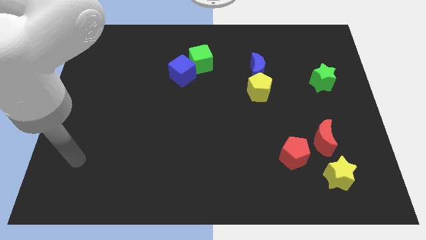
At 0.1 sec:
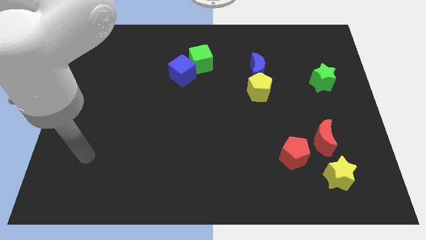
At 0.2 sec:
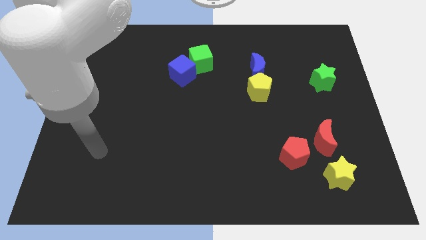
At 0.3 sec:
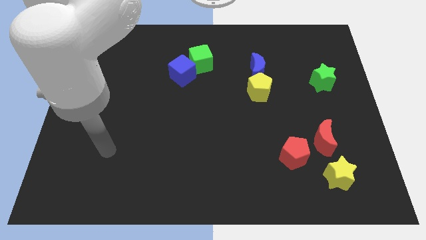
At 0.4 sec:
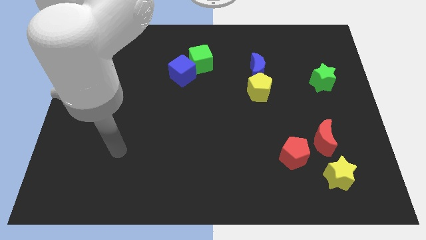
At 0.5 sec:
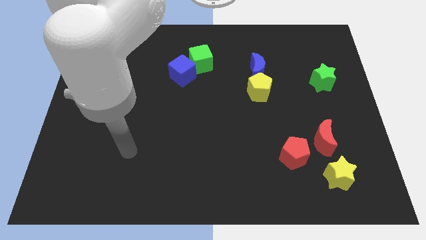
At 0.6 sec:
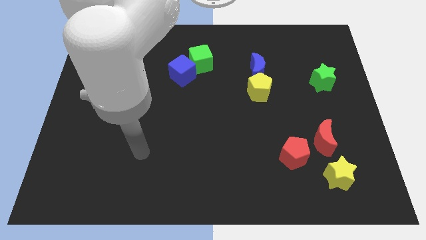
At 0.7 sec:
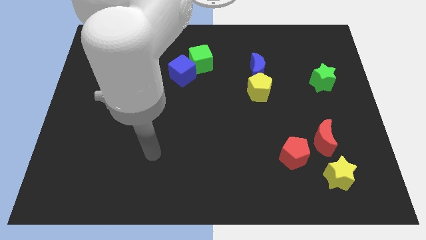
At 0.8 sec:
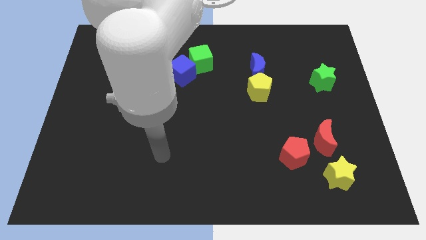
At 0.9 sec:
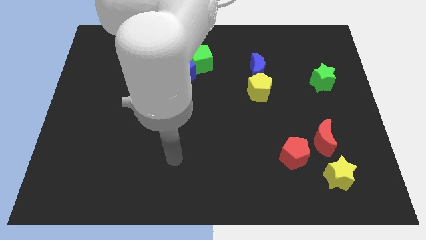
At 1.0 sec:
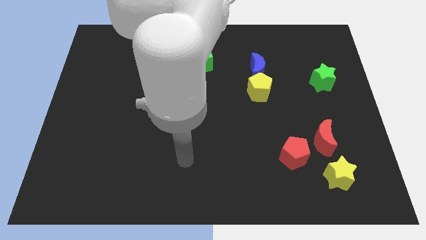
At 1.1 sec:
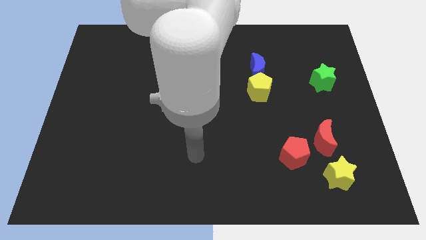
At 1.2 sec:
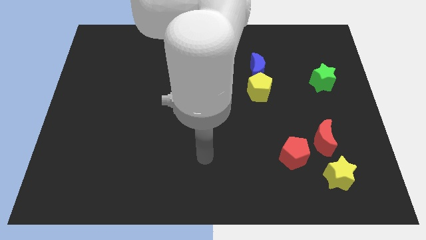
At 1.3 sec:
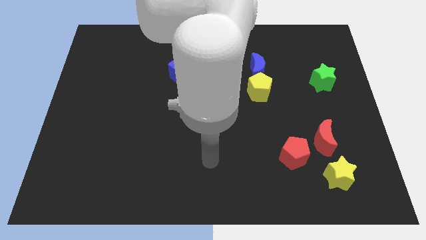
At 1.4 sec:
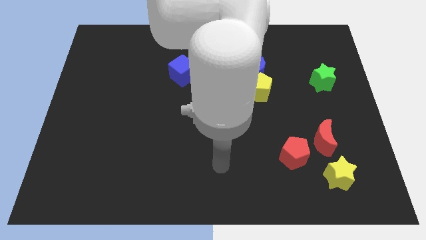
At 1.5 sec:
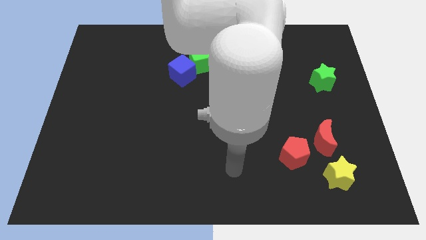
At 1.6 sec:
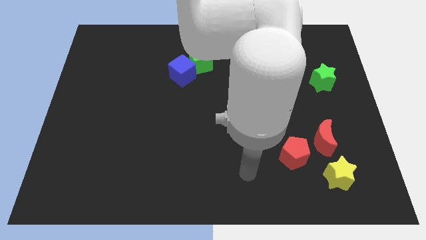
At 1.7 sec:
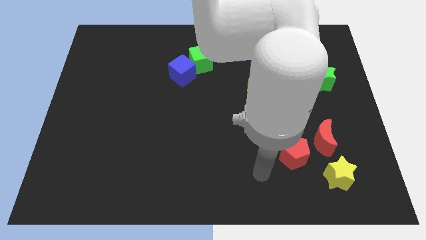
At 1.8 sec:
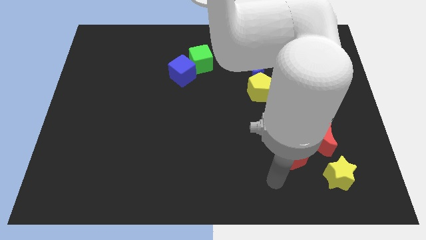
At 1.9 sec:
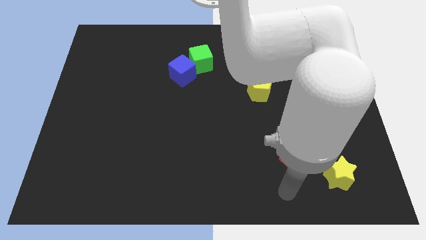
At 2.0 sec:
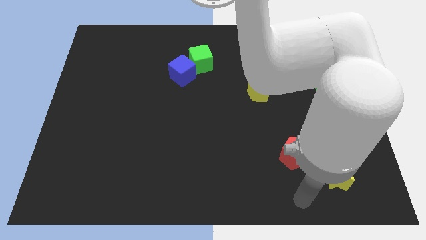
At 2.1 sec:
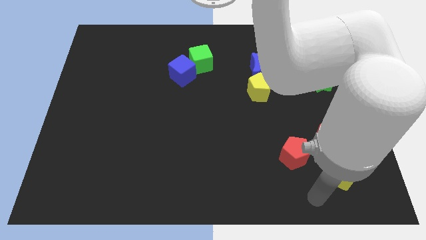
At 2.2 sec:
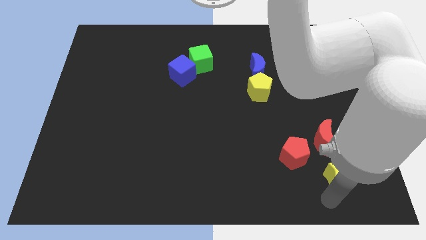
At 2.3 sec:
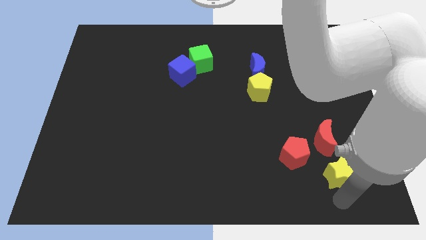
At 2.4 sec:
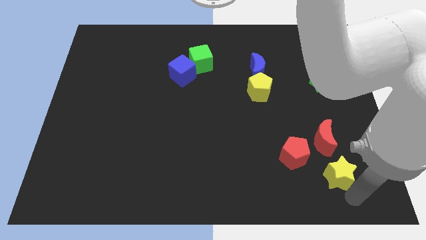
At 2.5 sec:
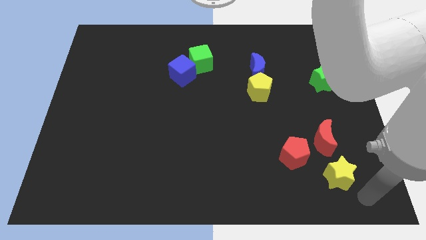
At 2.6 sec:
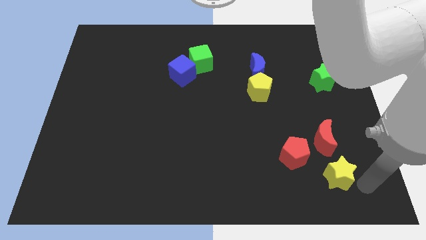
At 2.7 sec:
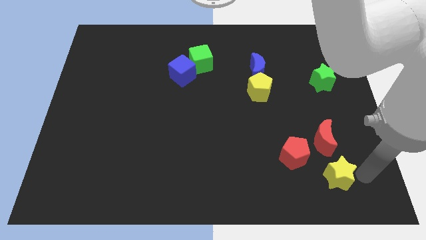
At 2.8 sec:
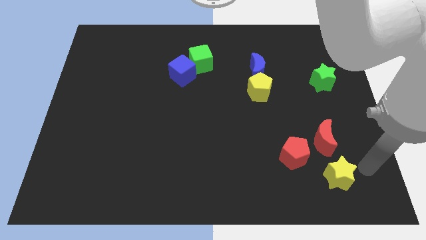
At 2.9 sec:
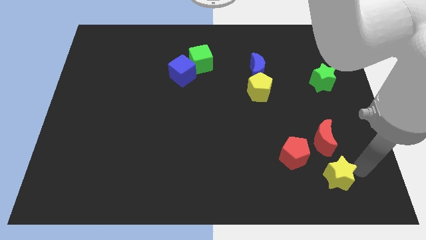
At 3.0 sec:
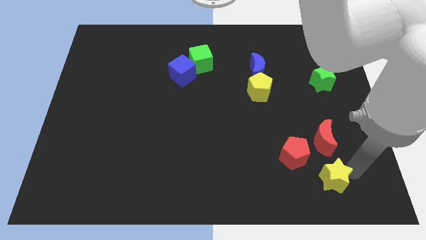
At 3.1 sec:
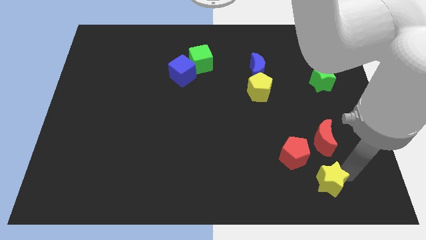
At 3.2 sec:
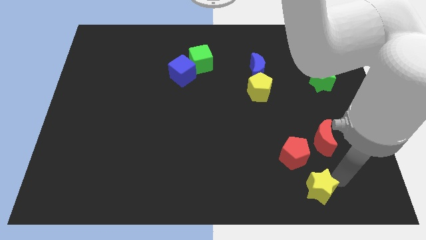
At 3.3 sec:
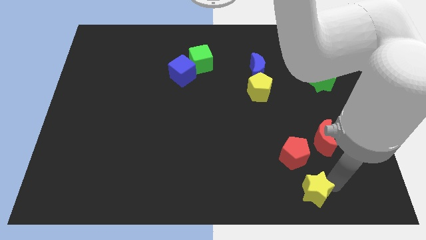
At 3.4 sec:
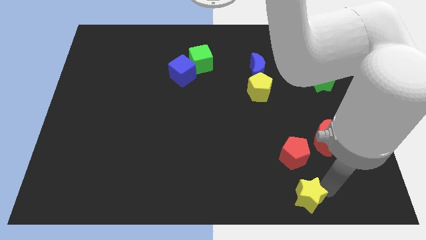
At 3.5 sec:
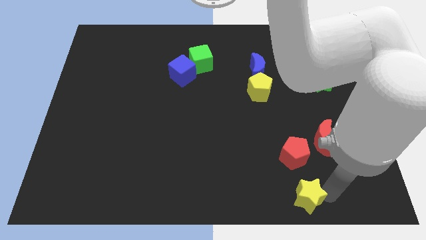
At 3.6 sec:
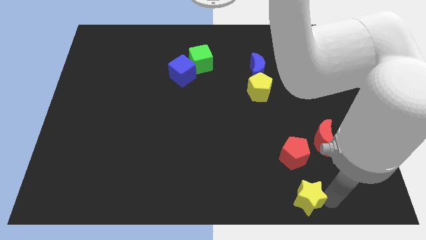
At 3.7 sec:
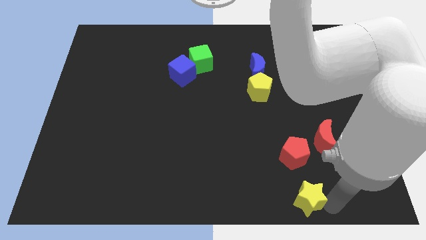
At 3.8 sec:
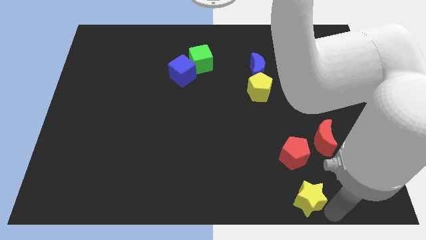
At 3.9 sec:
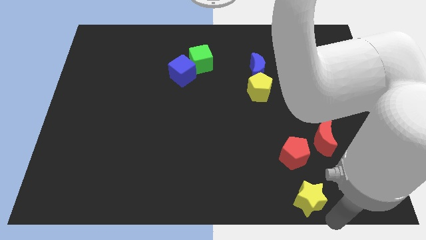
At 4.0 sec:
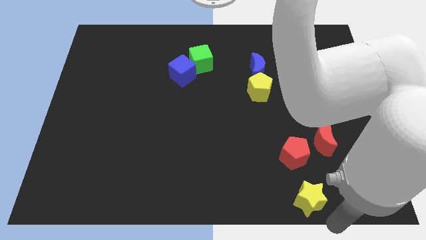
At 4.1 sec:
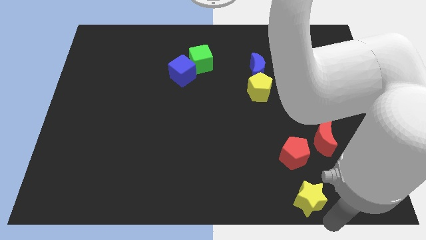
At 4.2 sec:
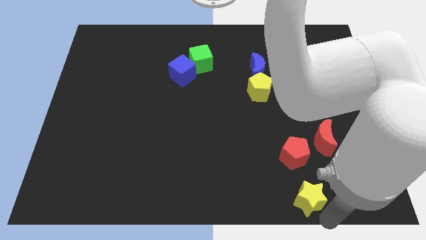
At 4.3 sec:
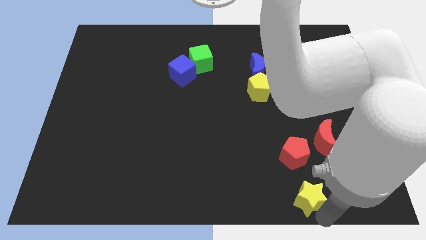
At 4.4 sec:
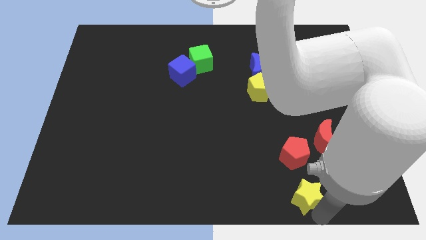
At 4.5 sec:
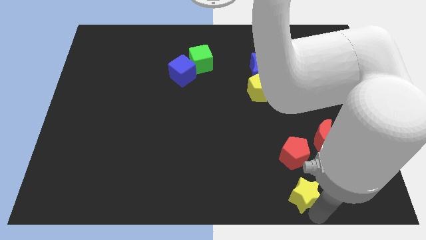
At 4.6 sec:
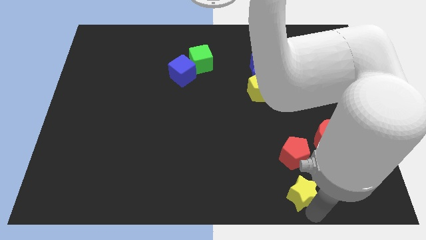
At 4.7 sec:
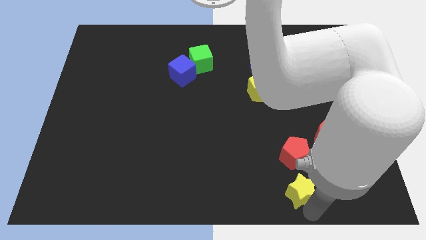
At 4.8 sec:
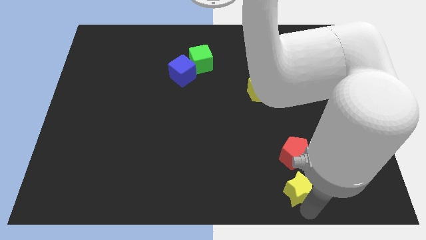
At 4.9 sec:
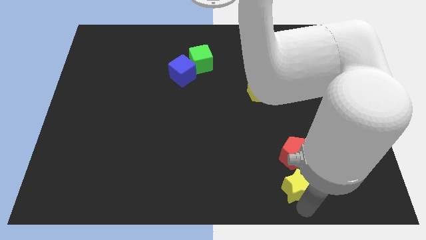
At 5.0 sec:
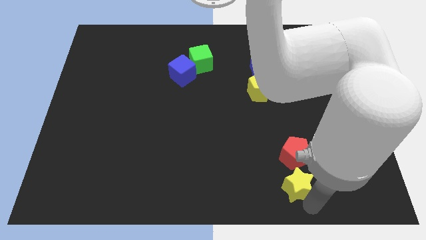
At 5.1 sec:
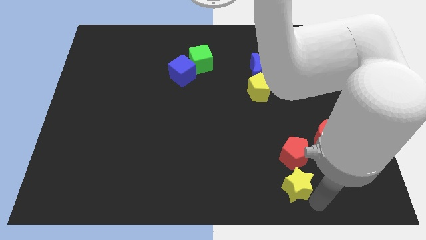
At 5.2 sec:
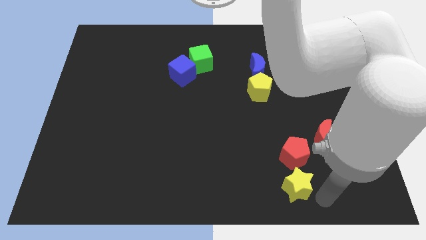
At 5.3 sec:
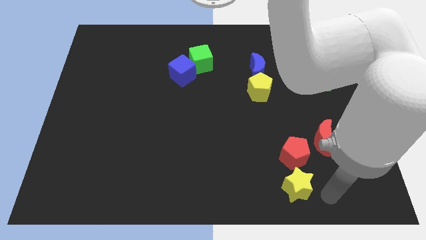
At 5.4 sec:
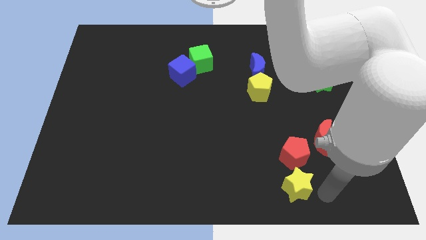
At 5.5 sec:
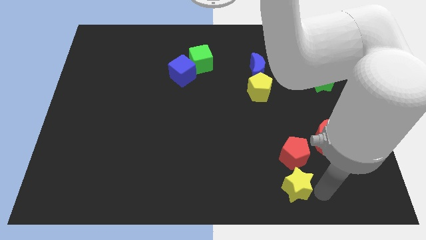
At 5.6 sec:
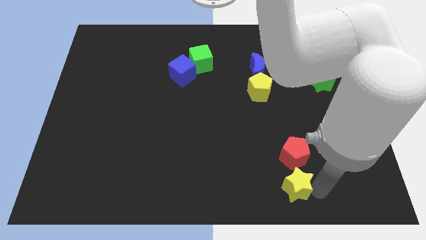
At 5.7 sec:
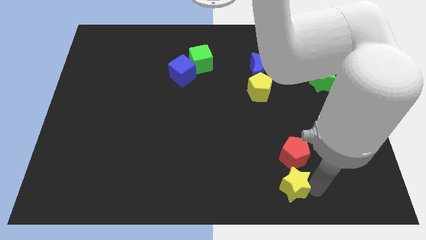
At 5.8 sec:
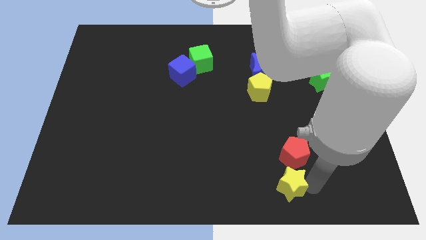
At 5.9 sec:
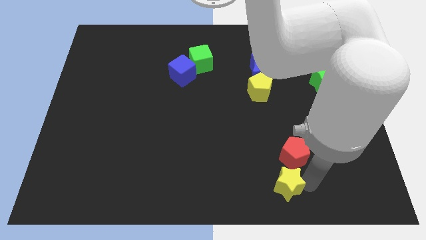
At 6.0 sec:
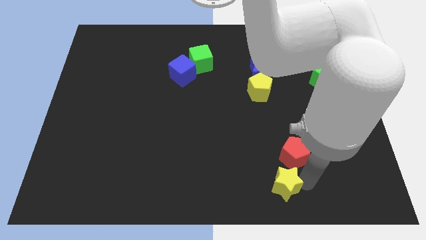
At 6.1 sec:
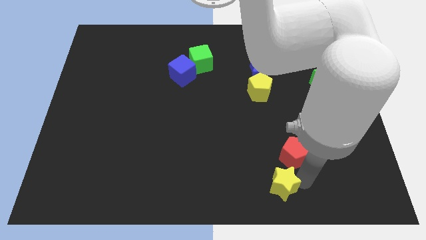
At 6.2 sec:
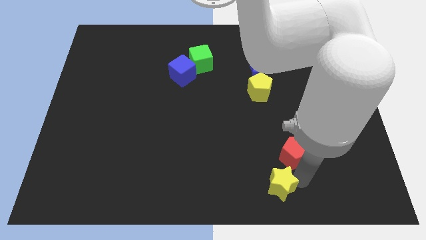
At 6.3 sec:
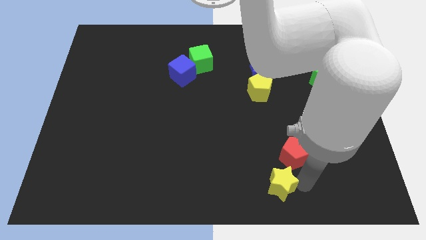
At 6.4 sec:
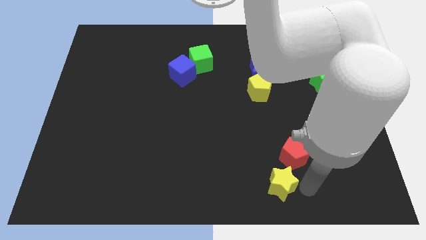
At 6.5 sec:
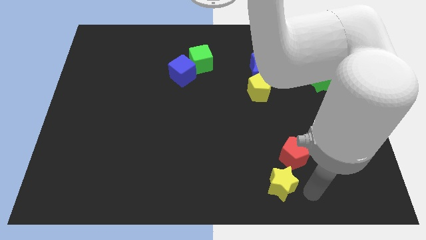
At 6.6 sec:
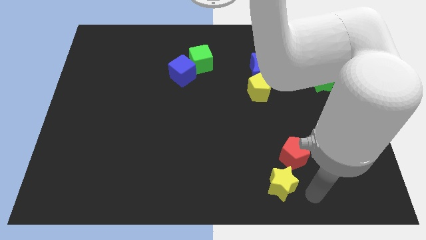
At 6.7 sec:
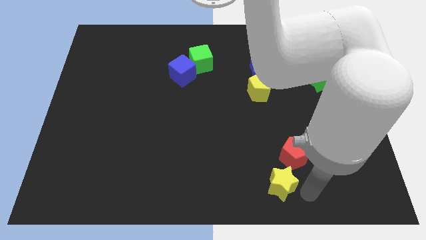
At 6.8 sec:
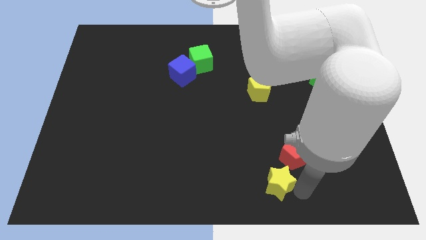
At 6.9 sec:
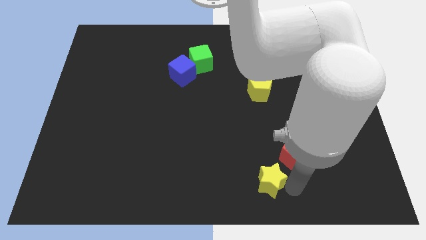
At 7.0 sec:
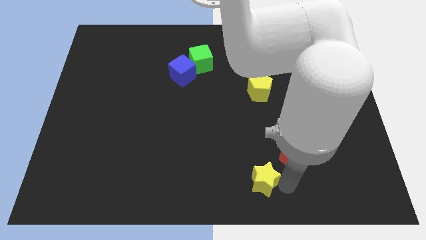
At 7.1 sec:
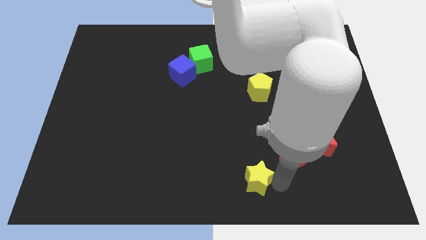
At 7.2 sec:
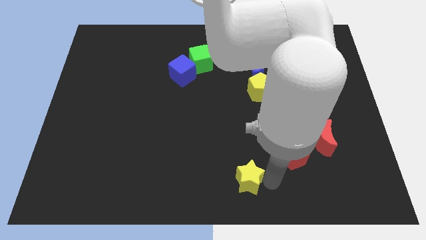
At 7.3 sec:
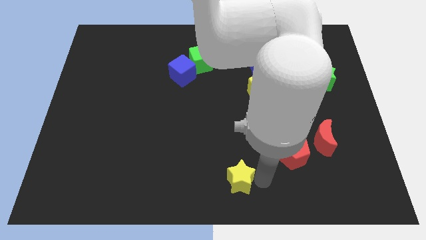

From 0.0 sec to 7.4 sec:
move the yellow star left

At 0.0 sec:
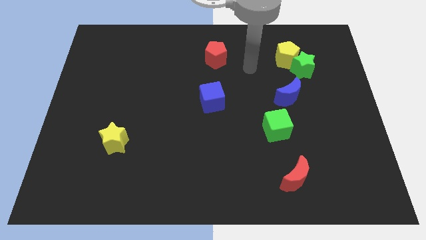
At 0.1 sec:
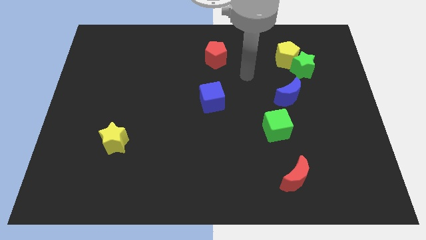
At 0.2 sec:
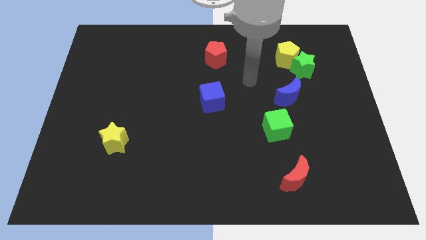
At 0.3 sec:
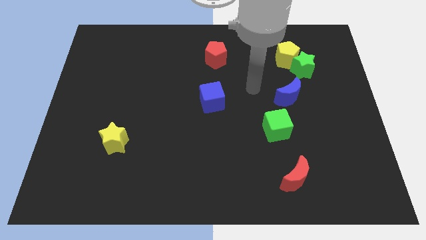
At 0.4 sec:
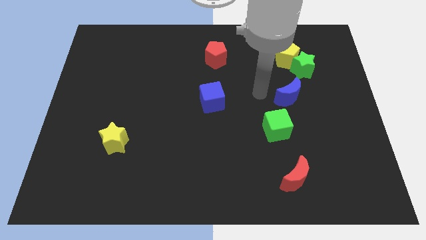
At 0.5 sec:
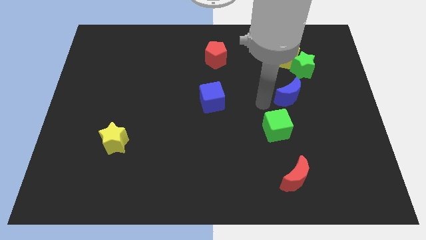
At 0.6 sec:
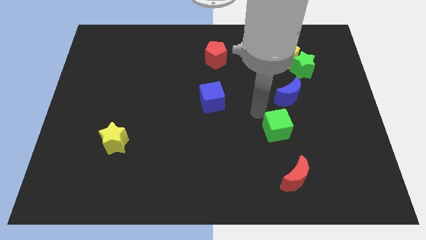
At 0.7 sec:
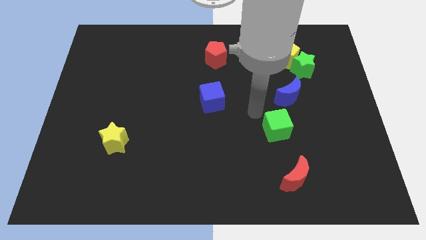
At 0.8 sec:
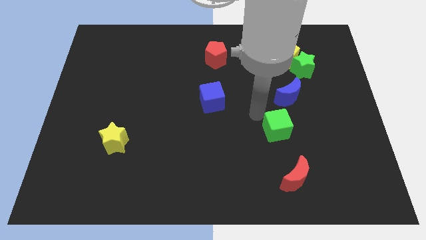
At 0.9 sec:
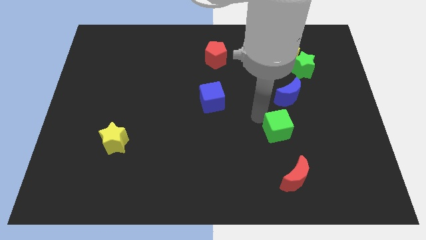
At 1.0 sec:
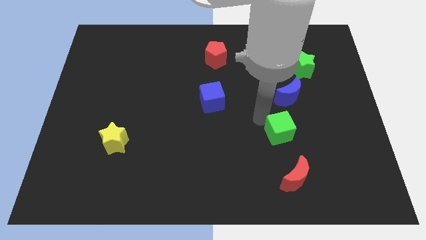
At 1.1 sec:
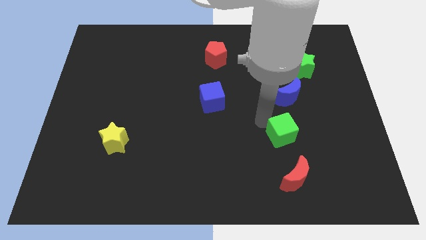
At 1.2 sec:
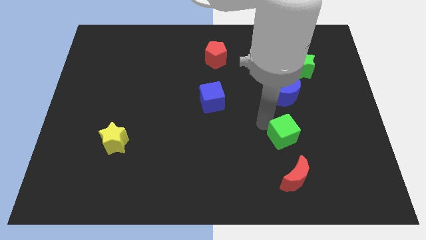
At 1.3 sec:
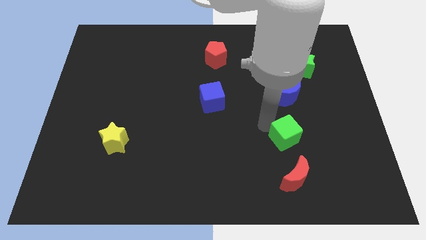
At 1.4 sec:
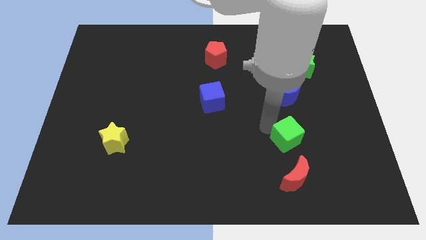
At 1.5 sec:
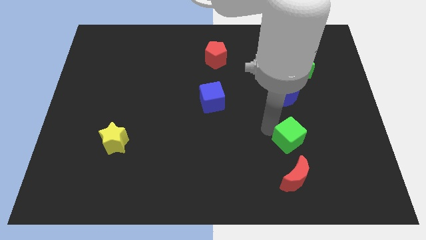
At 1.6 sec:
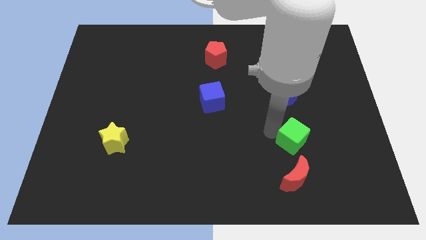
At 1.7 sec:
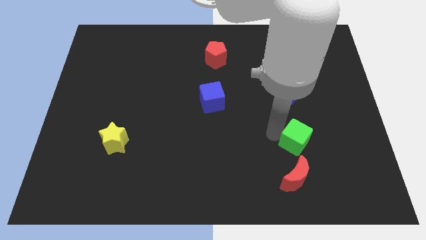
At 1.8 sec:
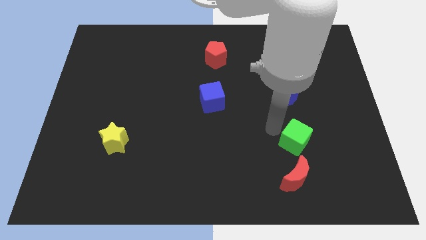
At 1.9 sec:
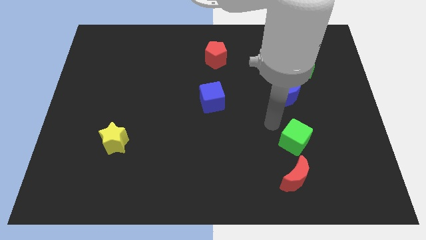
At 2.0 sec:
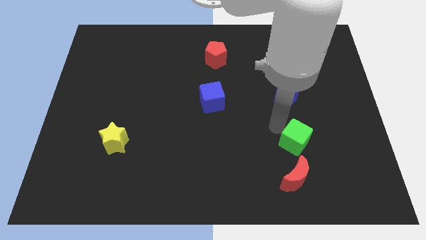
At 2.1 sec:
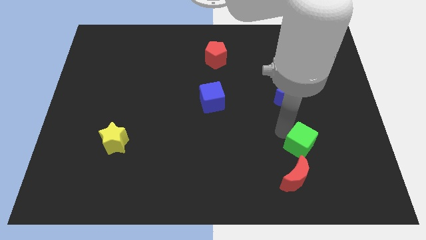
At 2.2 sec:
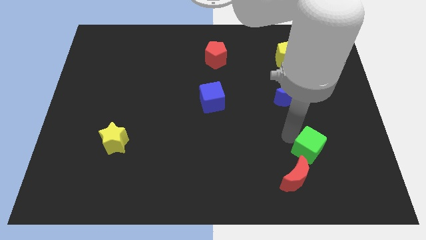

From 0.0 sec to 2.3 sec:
push the green cube somewhat downwards and then right
